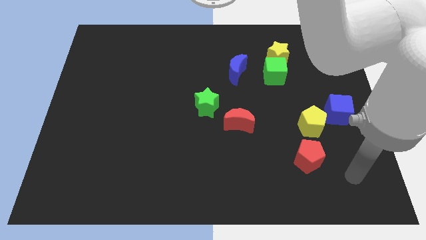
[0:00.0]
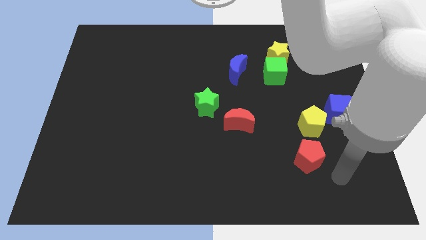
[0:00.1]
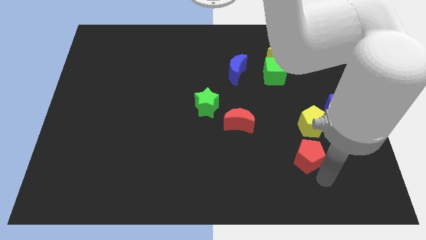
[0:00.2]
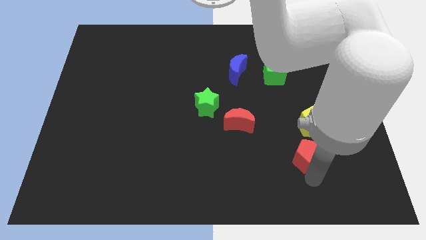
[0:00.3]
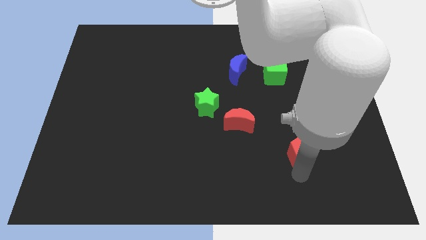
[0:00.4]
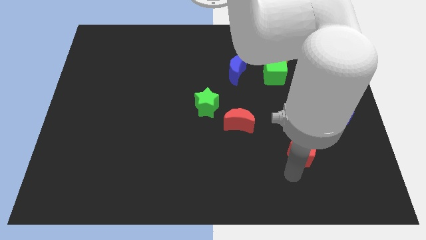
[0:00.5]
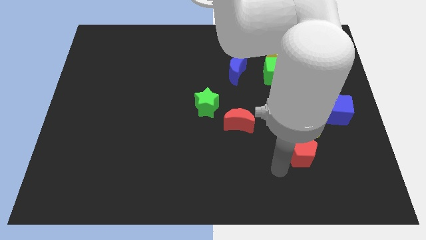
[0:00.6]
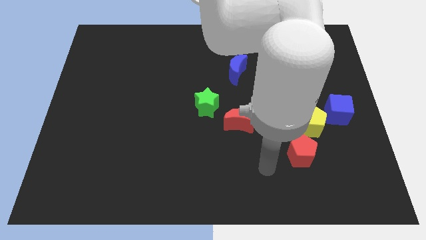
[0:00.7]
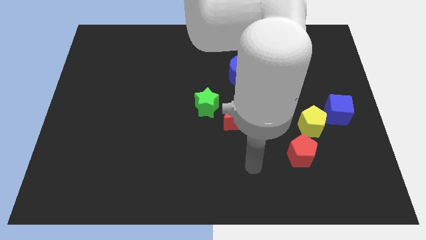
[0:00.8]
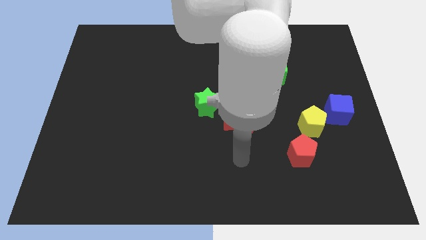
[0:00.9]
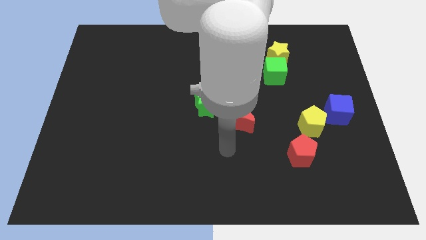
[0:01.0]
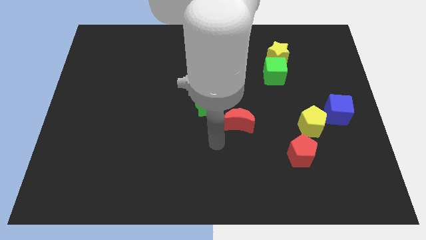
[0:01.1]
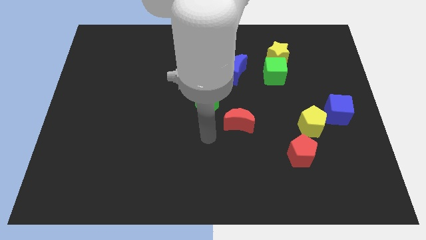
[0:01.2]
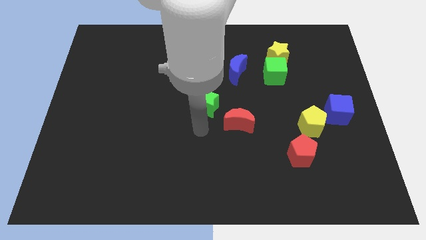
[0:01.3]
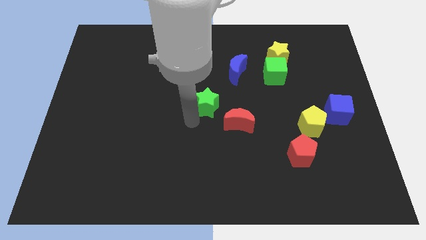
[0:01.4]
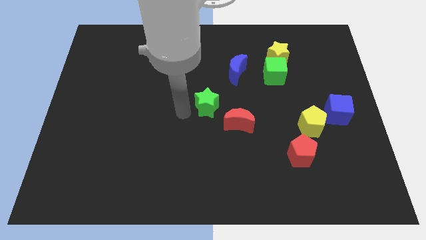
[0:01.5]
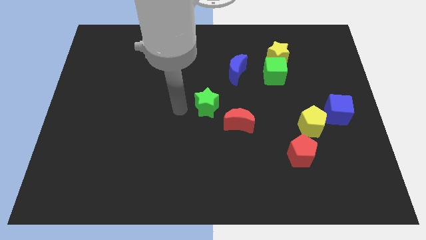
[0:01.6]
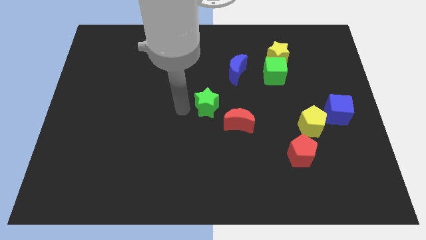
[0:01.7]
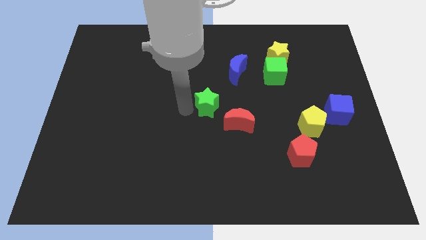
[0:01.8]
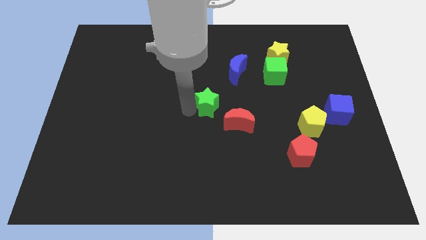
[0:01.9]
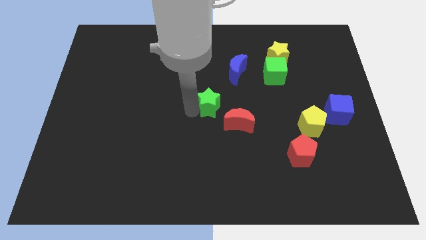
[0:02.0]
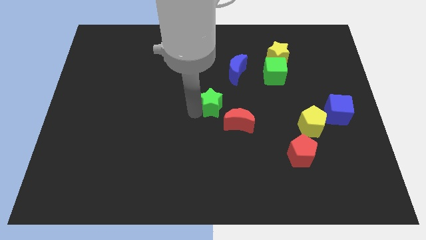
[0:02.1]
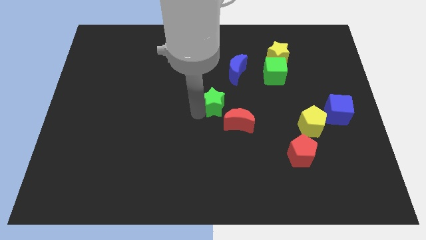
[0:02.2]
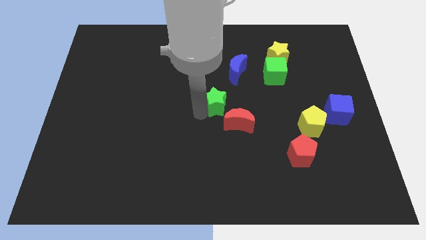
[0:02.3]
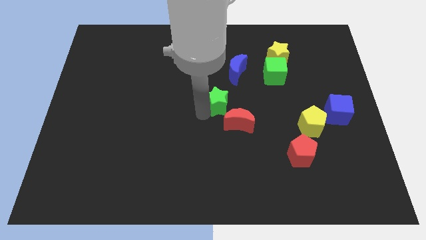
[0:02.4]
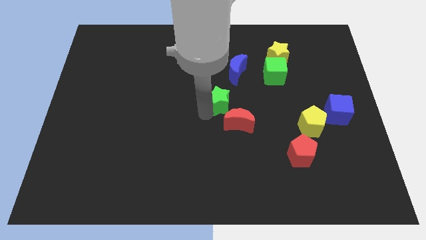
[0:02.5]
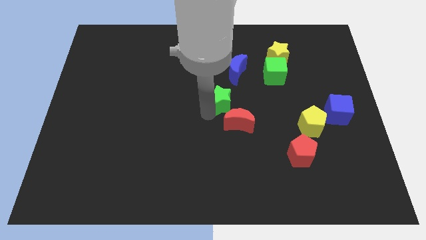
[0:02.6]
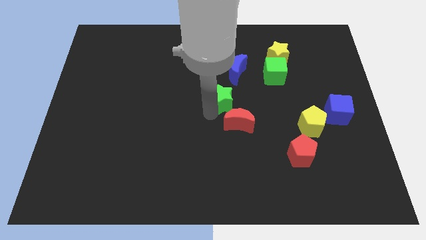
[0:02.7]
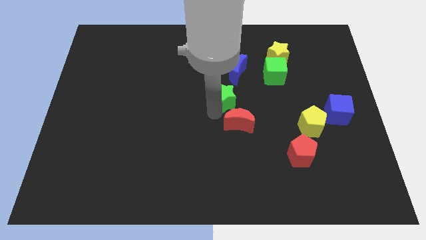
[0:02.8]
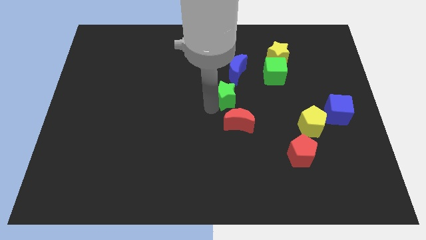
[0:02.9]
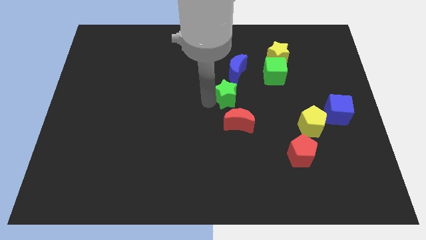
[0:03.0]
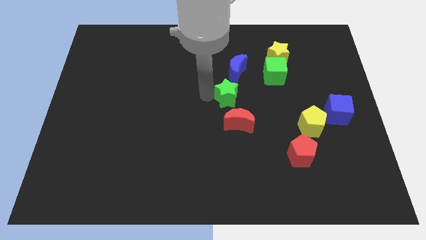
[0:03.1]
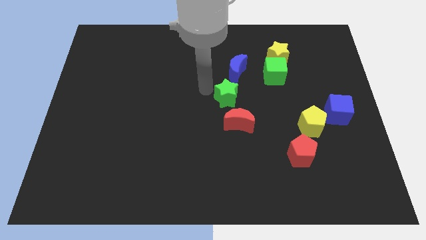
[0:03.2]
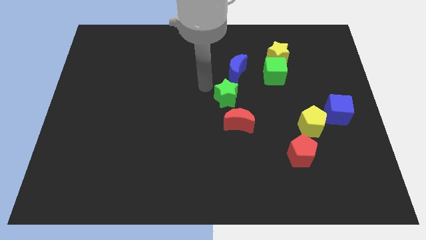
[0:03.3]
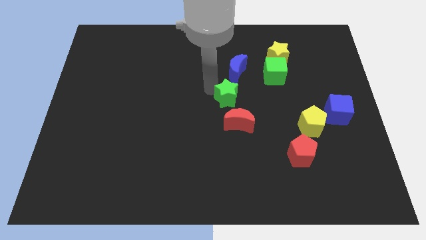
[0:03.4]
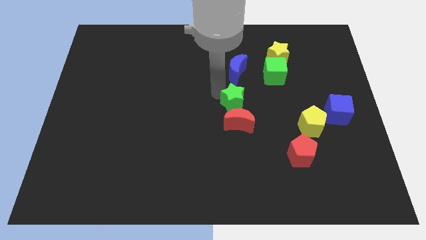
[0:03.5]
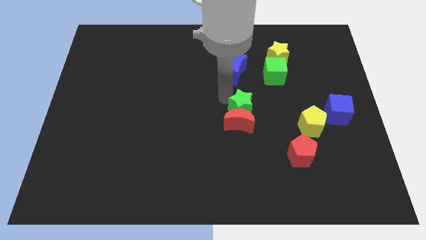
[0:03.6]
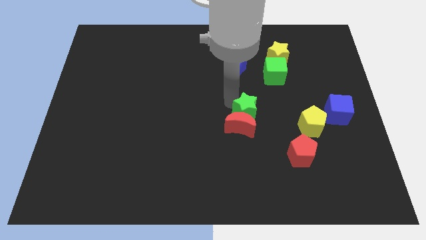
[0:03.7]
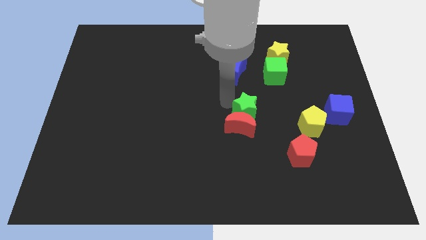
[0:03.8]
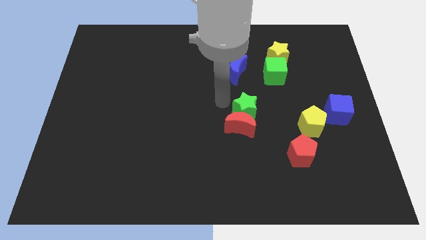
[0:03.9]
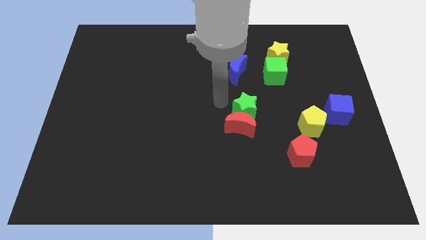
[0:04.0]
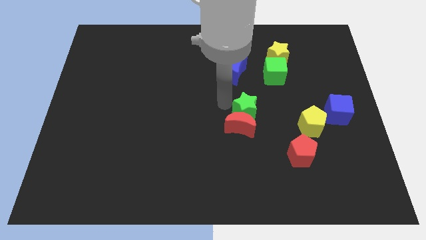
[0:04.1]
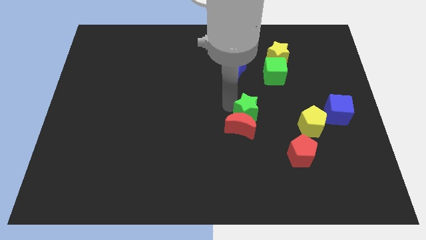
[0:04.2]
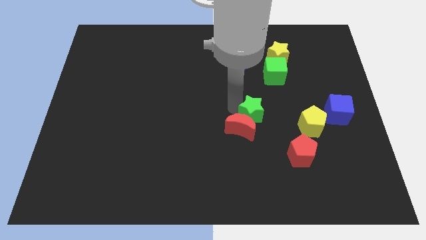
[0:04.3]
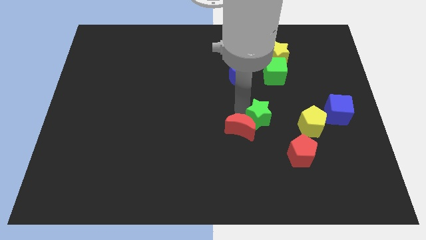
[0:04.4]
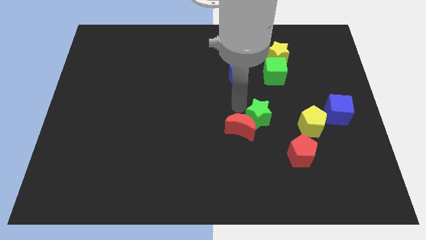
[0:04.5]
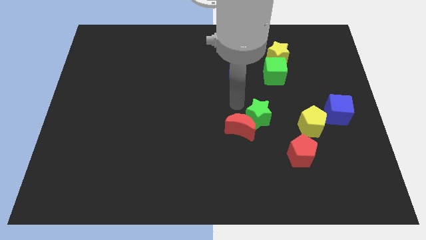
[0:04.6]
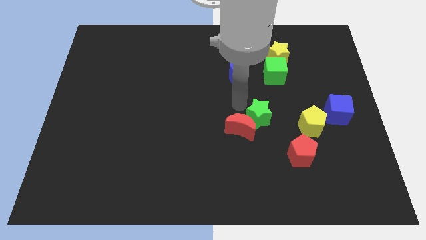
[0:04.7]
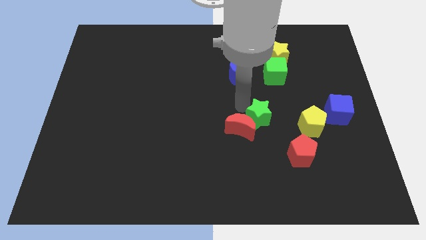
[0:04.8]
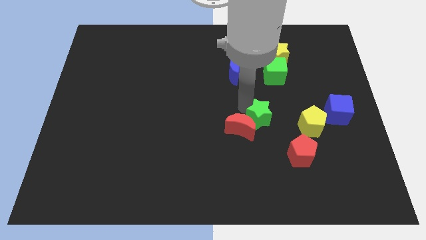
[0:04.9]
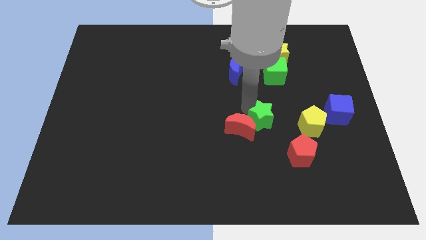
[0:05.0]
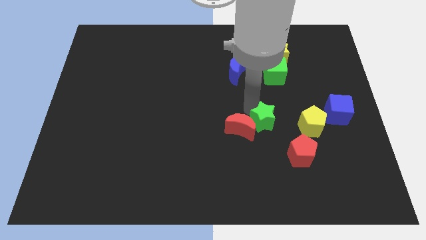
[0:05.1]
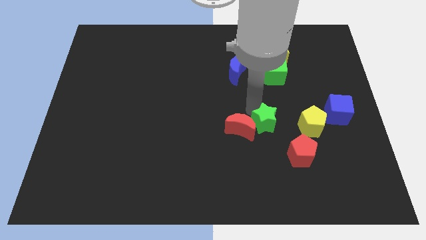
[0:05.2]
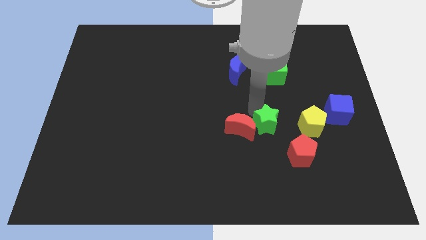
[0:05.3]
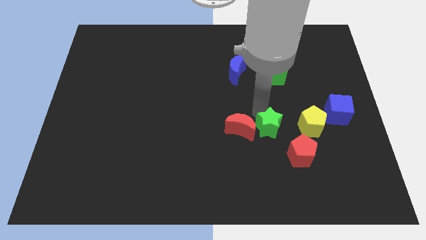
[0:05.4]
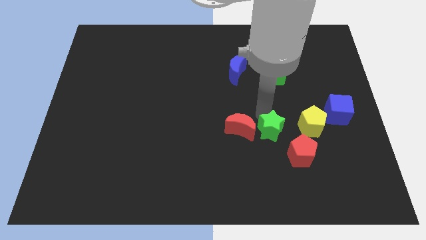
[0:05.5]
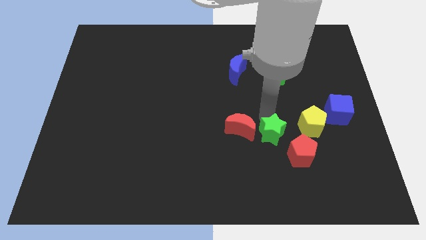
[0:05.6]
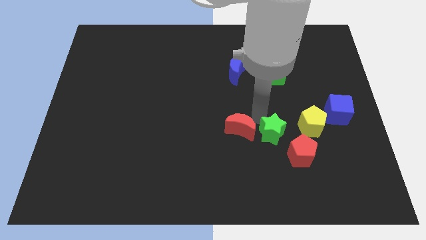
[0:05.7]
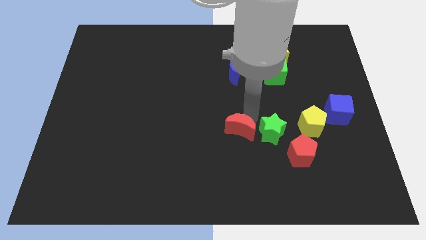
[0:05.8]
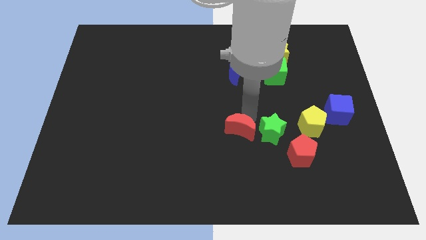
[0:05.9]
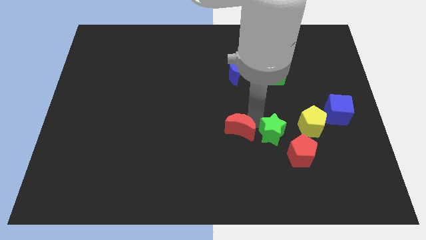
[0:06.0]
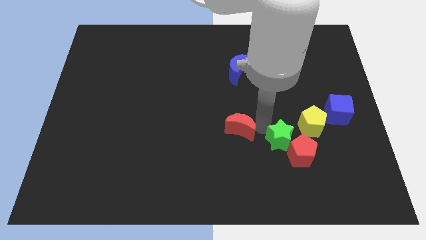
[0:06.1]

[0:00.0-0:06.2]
put the green star to the red pentagon
